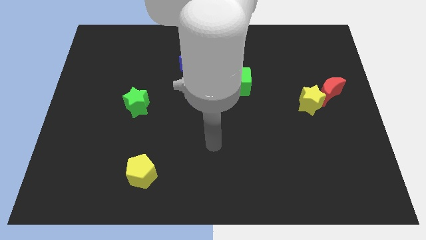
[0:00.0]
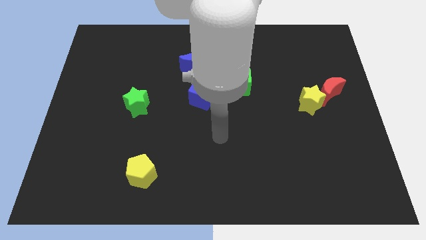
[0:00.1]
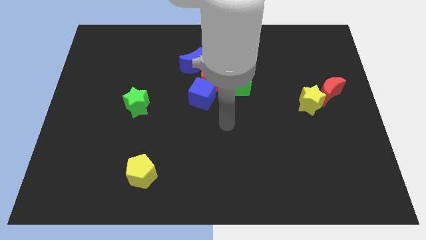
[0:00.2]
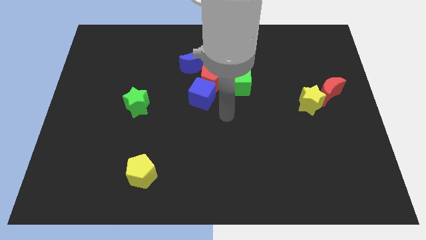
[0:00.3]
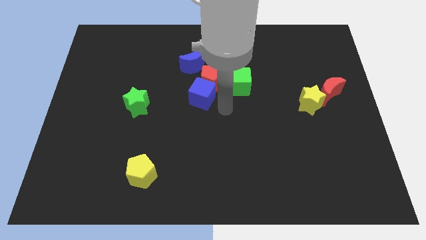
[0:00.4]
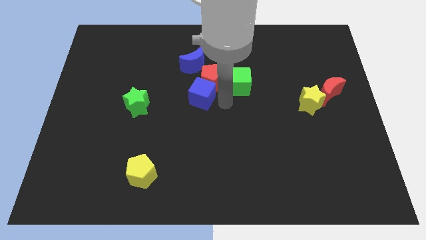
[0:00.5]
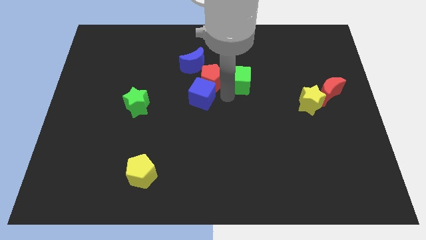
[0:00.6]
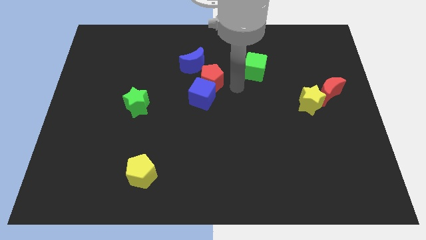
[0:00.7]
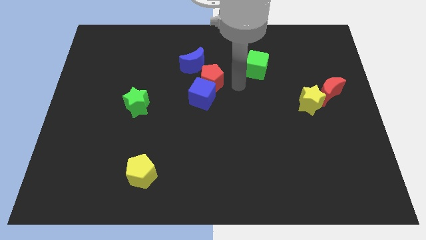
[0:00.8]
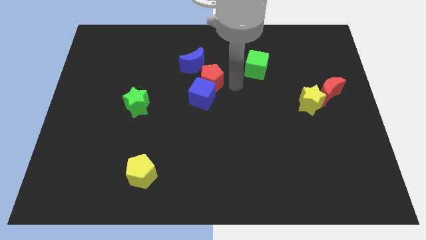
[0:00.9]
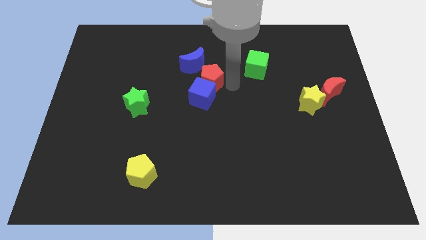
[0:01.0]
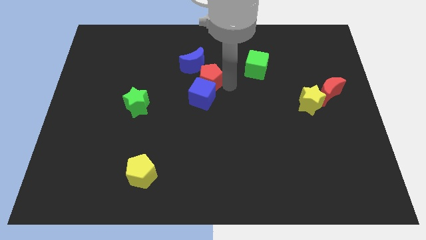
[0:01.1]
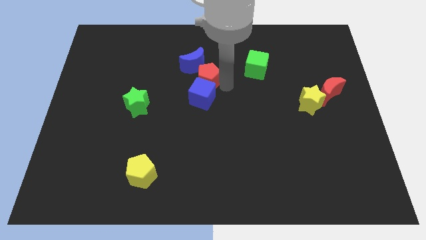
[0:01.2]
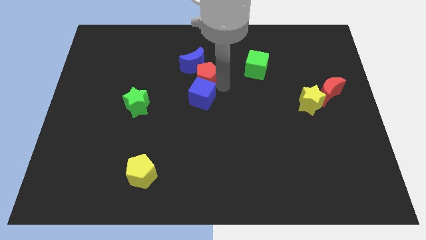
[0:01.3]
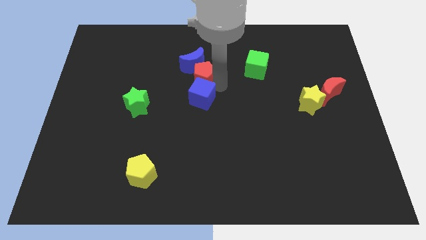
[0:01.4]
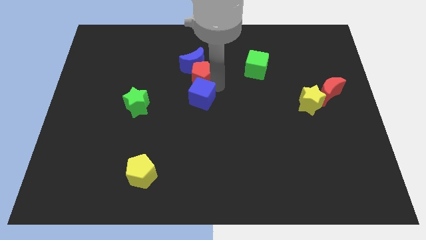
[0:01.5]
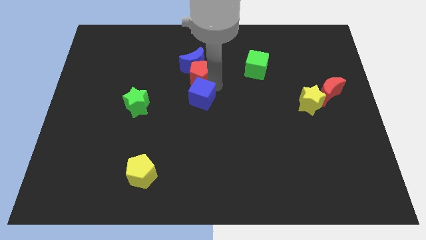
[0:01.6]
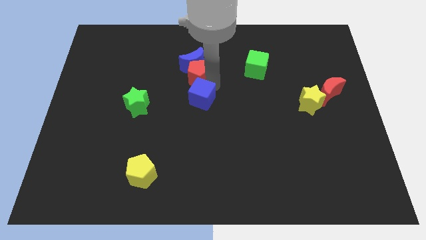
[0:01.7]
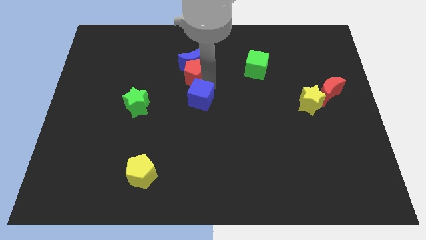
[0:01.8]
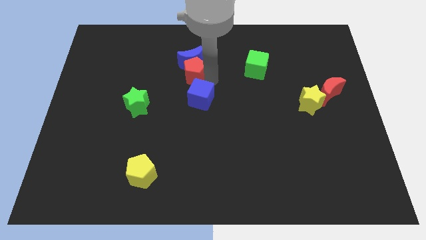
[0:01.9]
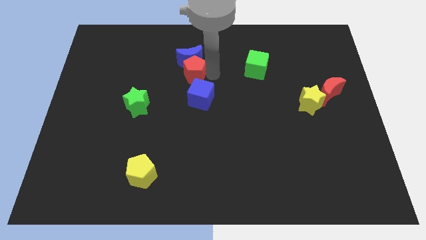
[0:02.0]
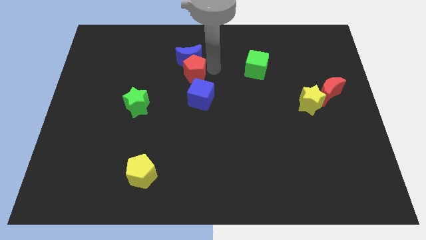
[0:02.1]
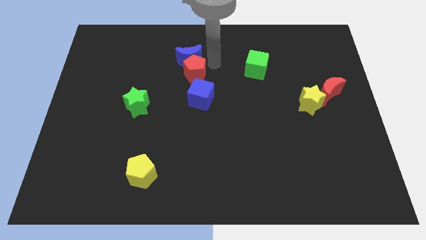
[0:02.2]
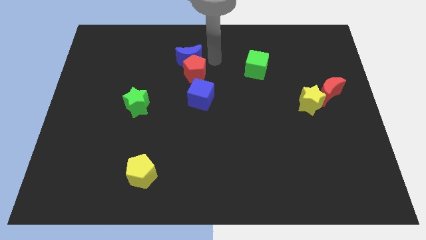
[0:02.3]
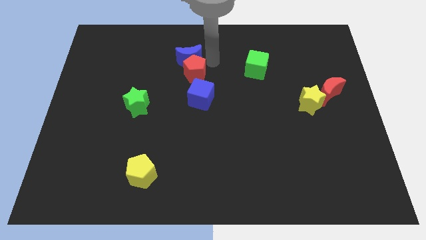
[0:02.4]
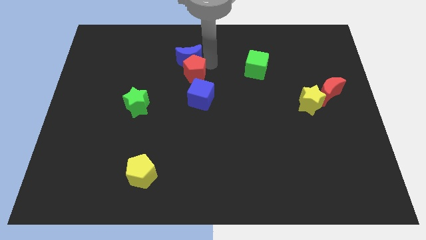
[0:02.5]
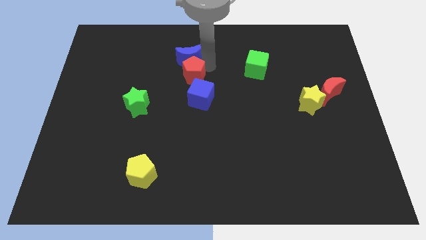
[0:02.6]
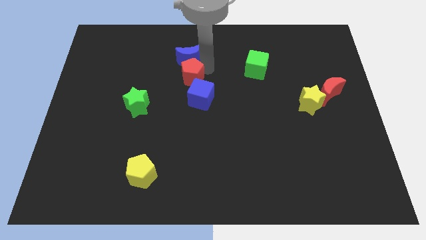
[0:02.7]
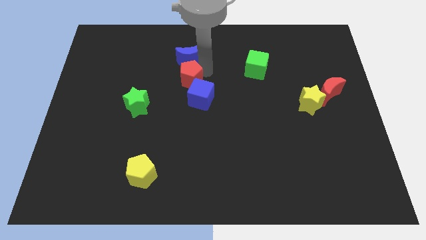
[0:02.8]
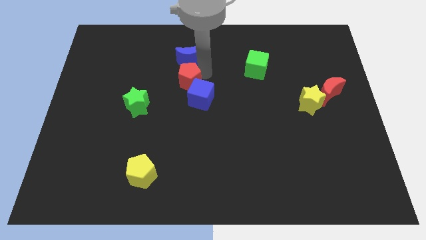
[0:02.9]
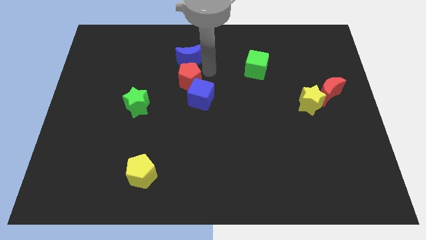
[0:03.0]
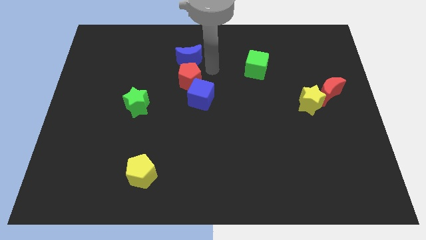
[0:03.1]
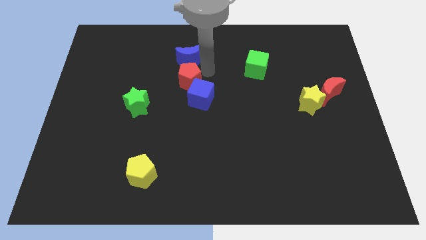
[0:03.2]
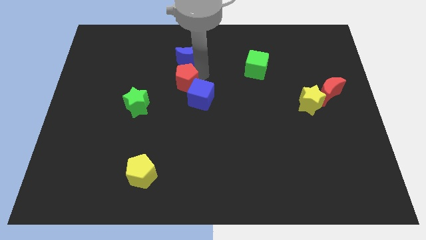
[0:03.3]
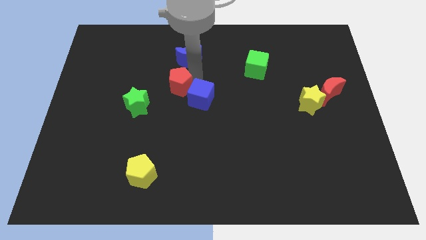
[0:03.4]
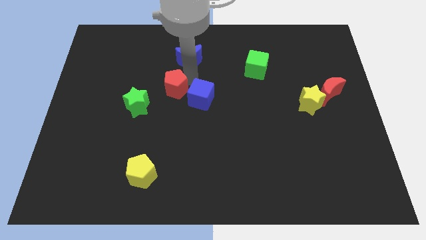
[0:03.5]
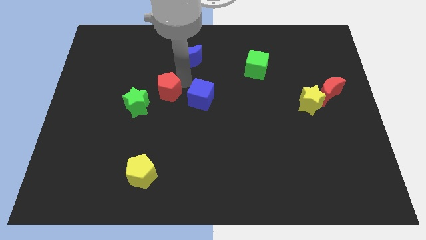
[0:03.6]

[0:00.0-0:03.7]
move the red pentagon slightly diagonally downwards and left

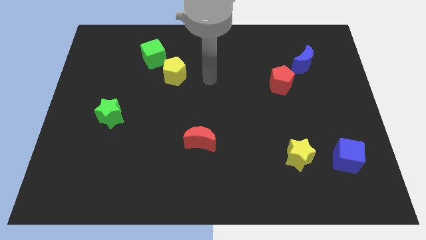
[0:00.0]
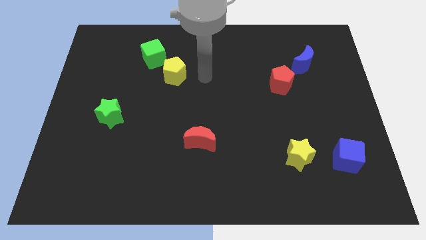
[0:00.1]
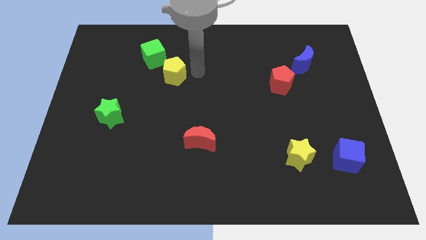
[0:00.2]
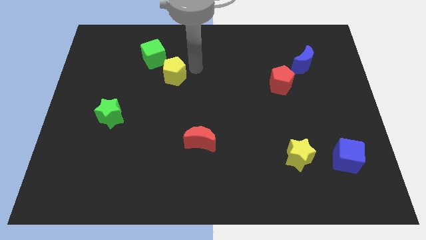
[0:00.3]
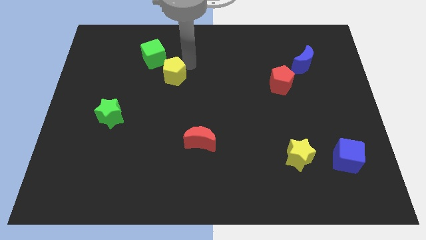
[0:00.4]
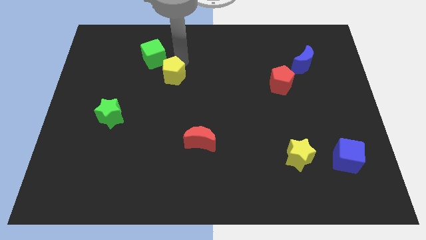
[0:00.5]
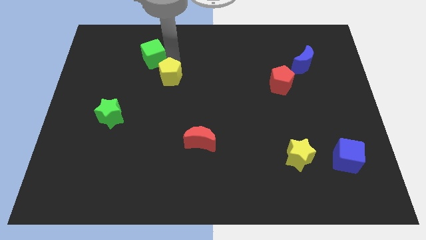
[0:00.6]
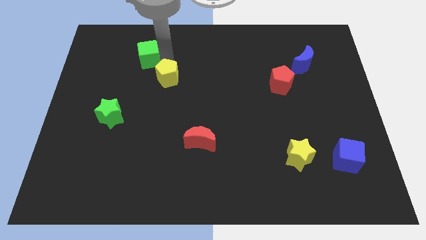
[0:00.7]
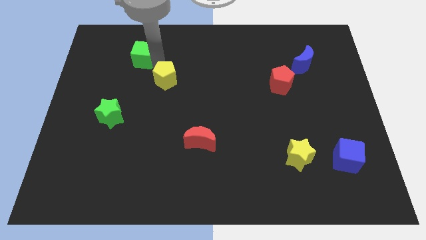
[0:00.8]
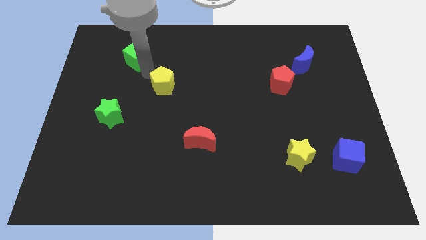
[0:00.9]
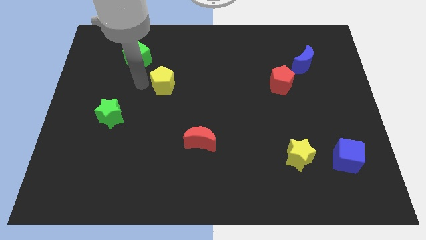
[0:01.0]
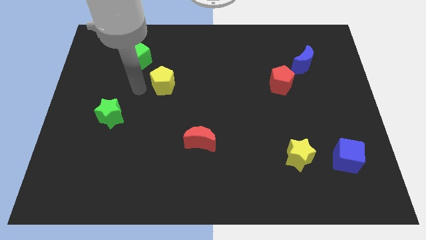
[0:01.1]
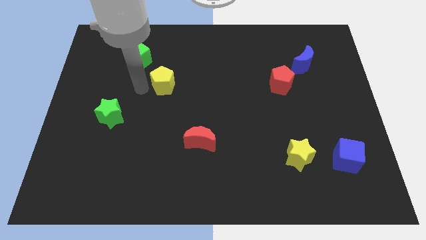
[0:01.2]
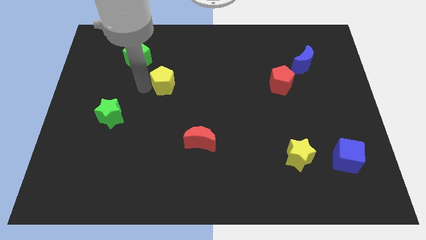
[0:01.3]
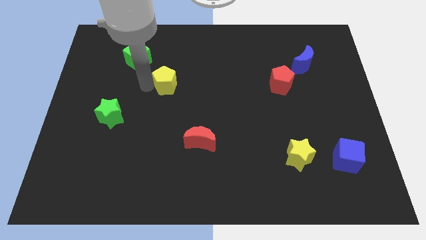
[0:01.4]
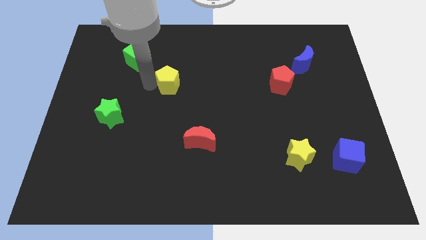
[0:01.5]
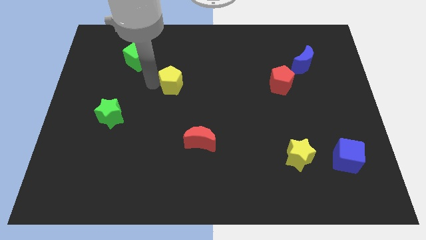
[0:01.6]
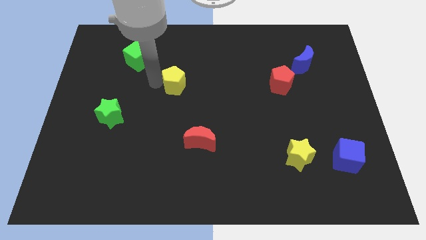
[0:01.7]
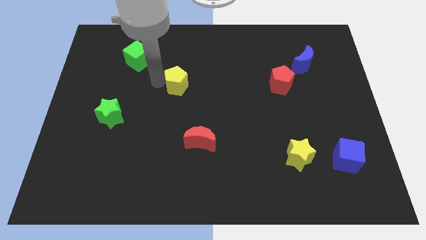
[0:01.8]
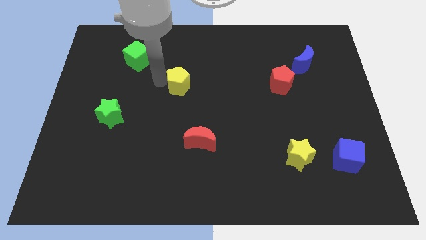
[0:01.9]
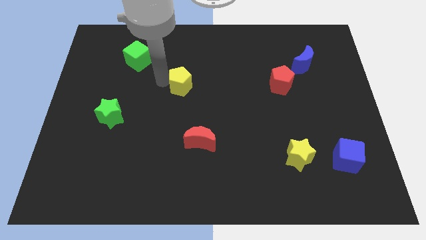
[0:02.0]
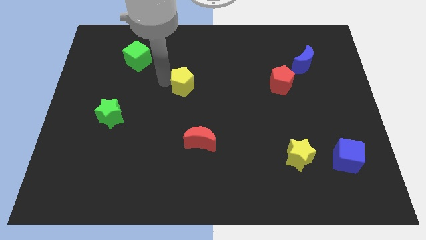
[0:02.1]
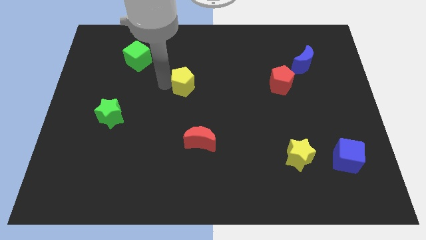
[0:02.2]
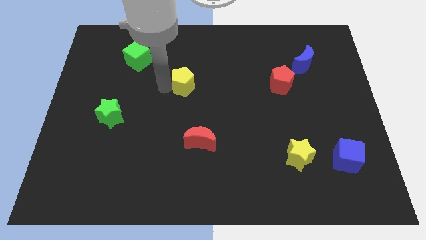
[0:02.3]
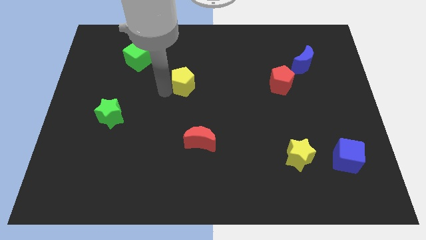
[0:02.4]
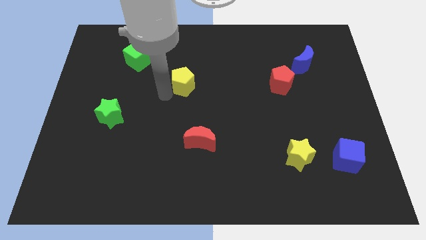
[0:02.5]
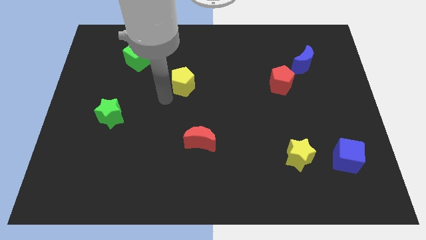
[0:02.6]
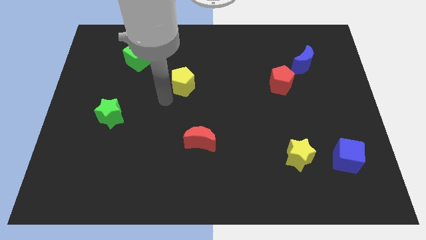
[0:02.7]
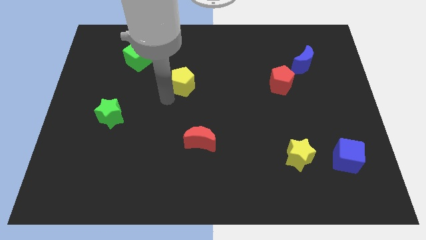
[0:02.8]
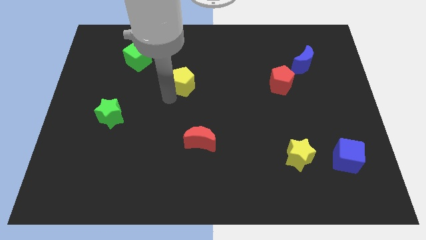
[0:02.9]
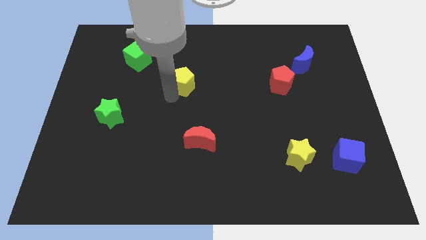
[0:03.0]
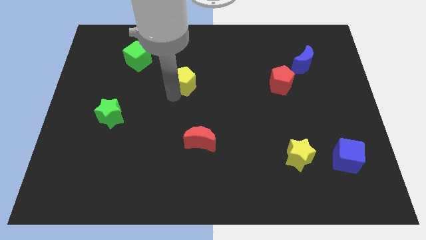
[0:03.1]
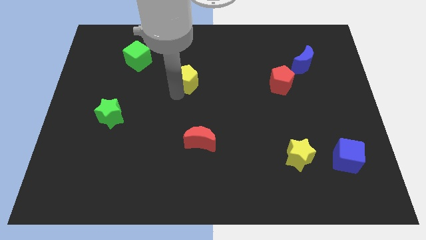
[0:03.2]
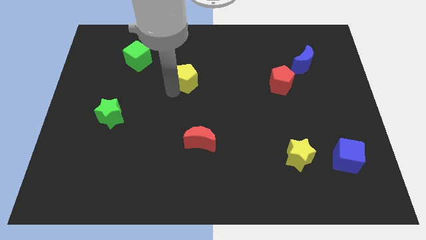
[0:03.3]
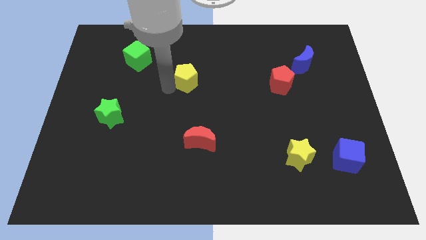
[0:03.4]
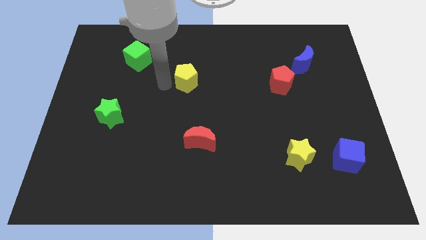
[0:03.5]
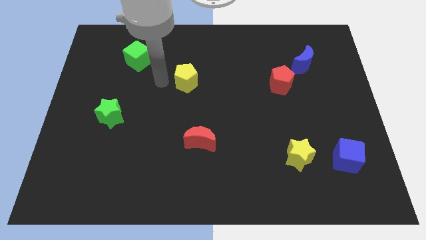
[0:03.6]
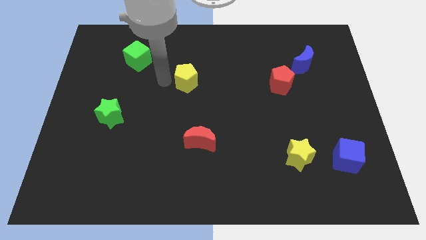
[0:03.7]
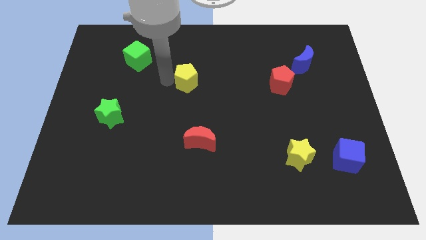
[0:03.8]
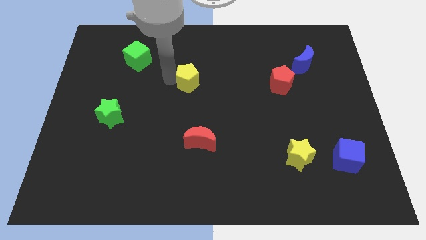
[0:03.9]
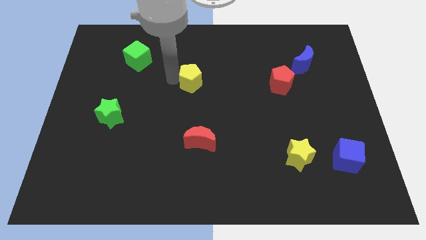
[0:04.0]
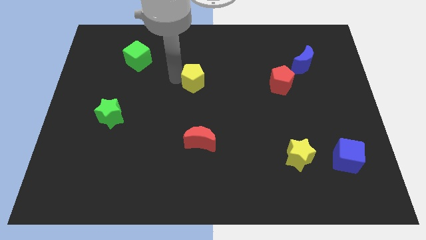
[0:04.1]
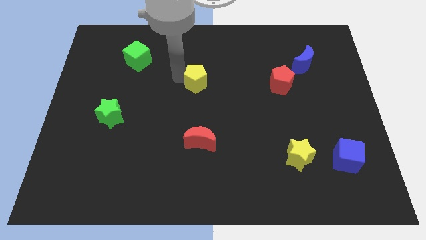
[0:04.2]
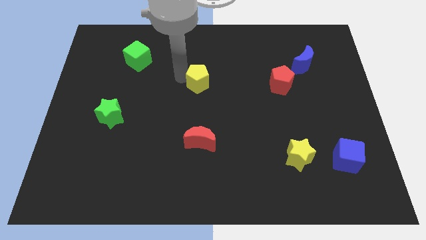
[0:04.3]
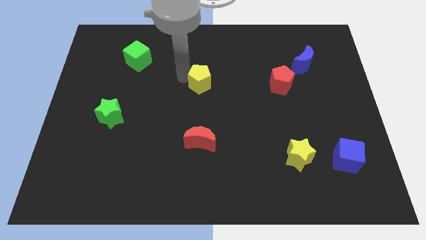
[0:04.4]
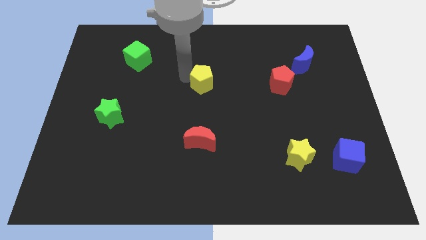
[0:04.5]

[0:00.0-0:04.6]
move the yellow pentagon right a bit
